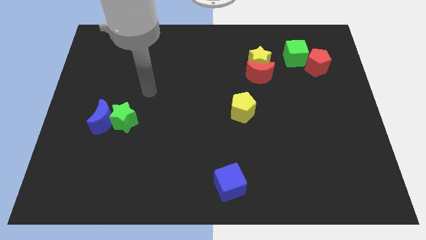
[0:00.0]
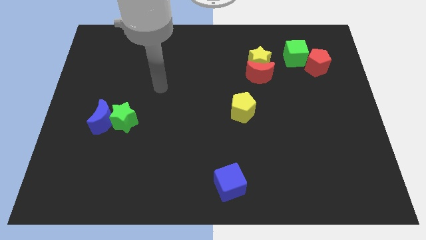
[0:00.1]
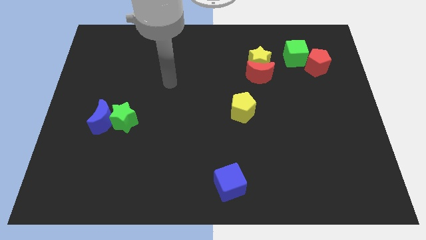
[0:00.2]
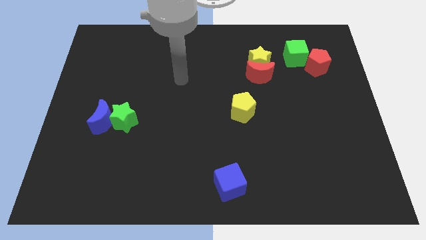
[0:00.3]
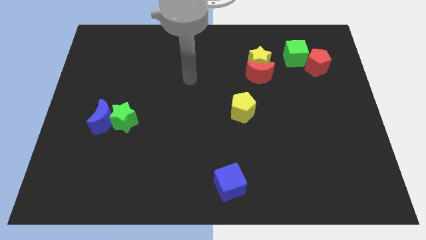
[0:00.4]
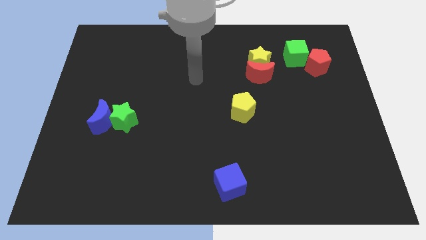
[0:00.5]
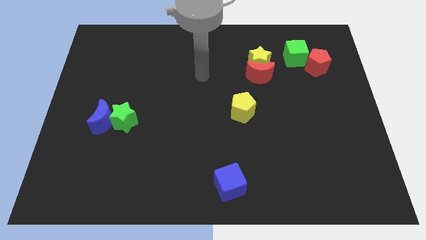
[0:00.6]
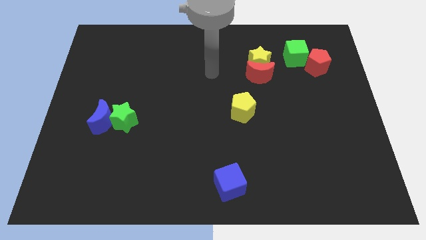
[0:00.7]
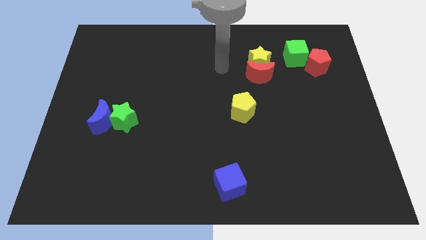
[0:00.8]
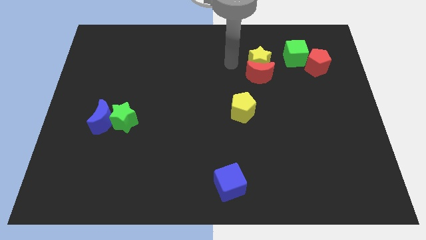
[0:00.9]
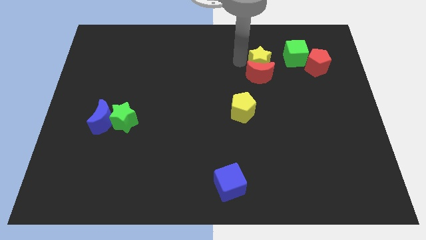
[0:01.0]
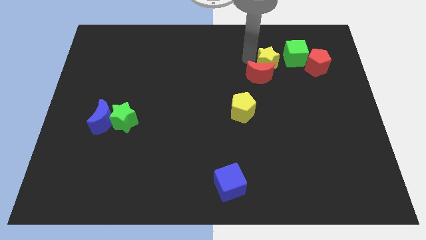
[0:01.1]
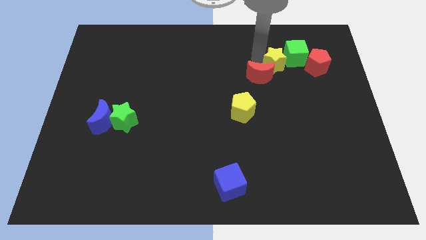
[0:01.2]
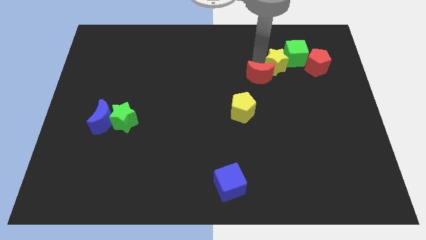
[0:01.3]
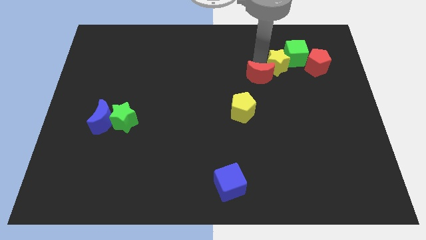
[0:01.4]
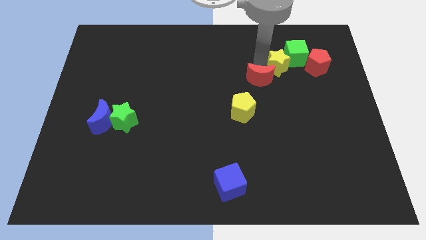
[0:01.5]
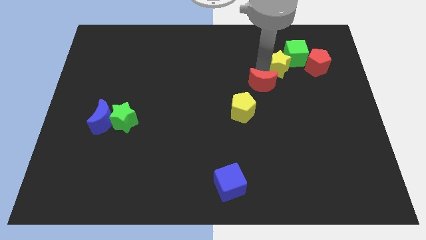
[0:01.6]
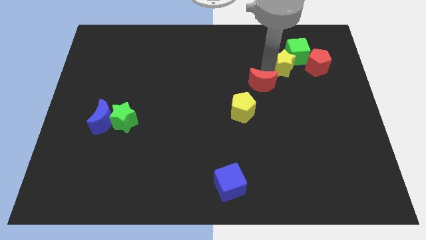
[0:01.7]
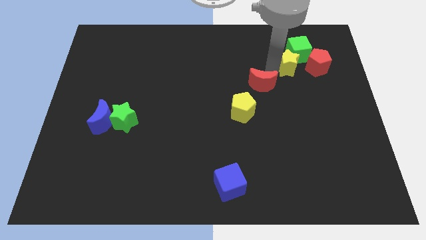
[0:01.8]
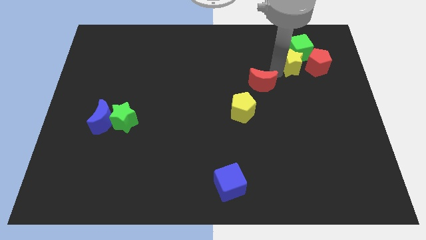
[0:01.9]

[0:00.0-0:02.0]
move the red moon away from the yellow star

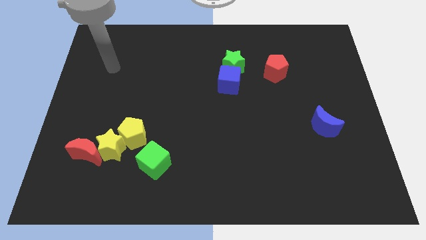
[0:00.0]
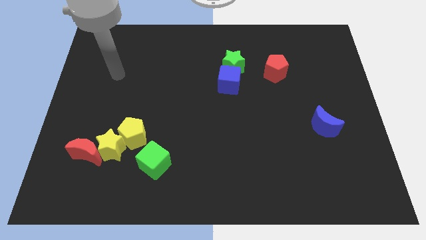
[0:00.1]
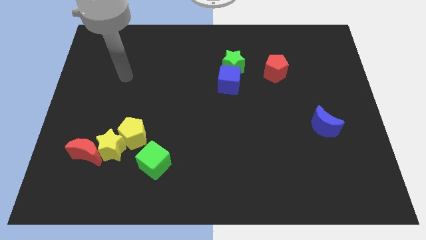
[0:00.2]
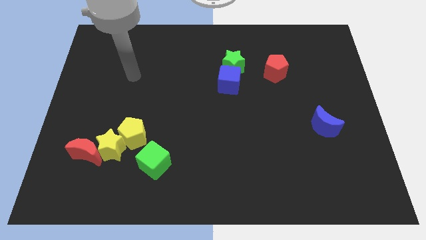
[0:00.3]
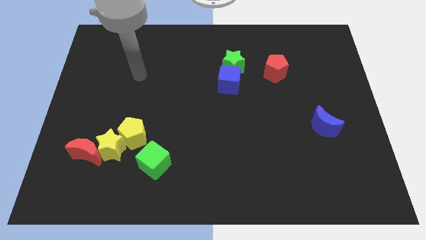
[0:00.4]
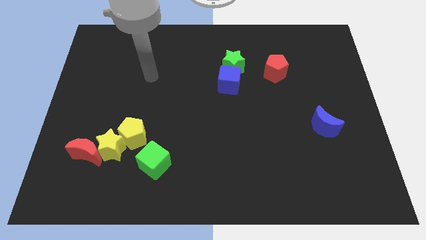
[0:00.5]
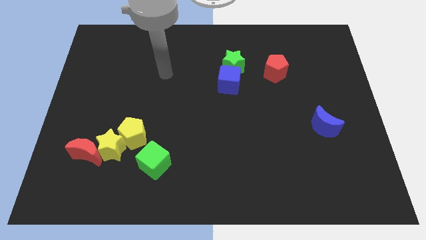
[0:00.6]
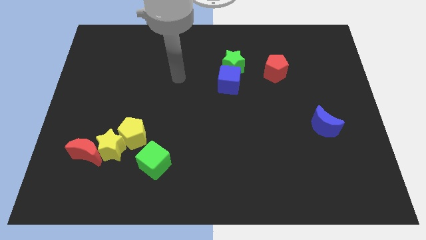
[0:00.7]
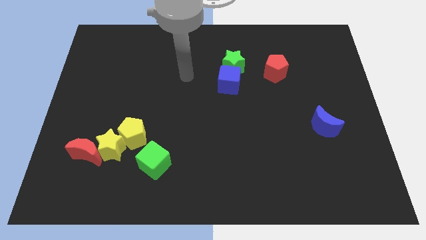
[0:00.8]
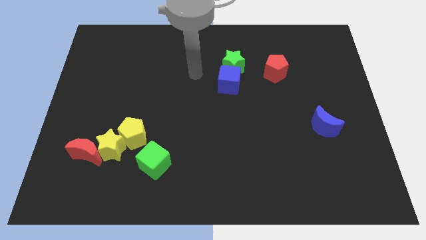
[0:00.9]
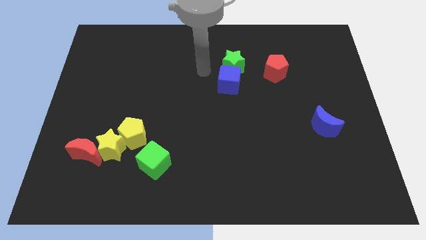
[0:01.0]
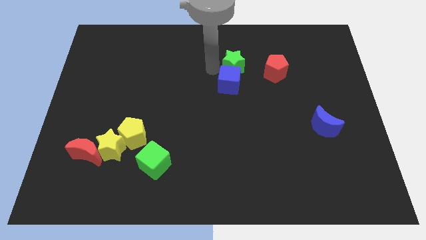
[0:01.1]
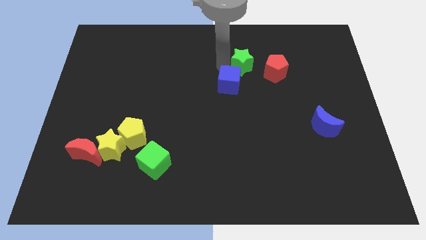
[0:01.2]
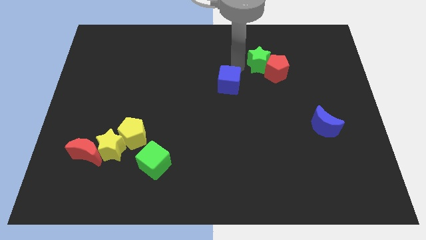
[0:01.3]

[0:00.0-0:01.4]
move the blue cube away from the green star

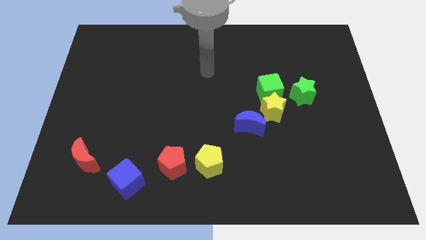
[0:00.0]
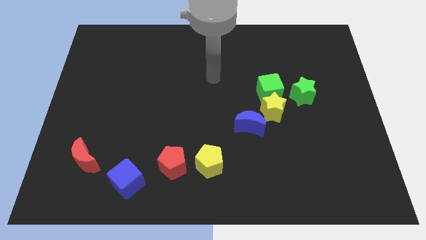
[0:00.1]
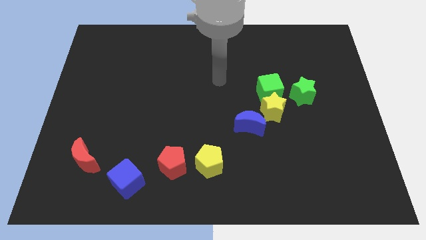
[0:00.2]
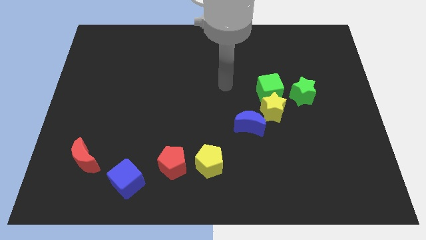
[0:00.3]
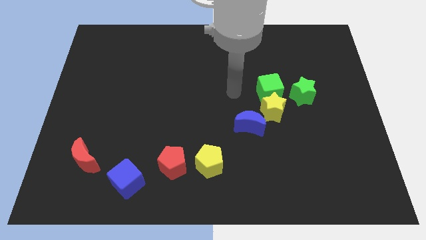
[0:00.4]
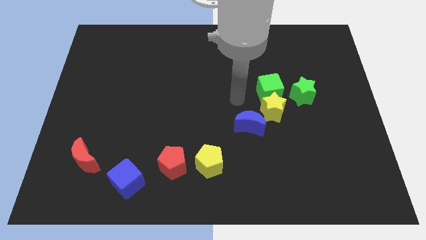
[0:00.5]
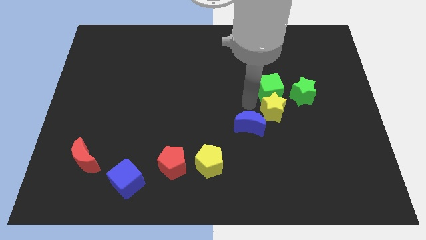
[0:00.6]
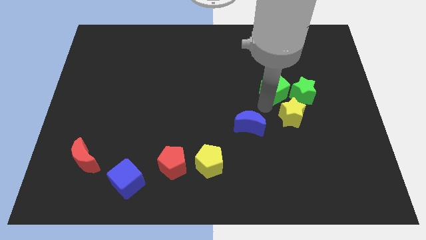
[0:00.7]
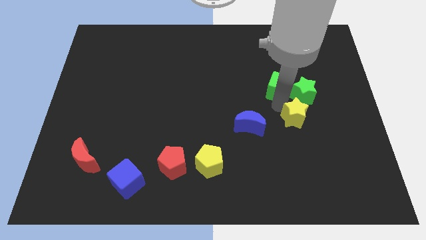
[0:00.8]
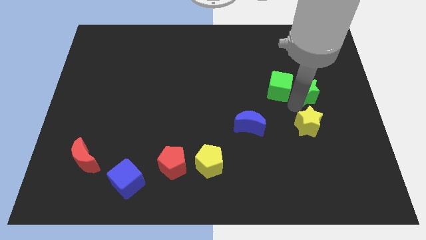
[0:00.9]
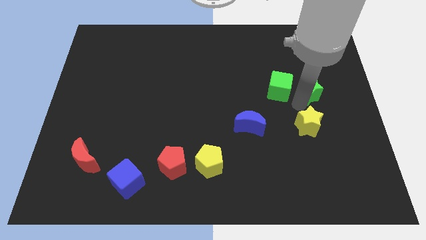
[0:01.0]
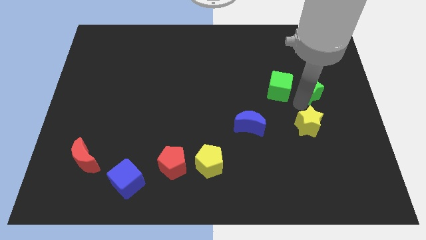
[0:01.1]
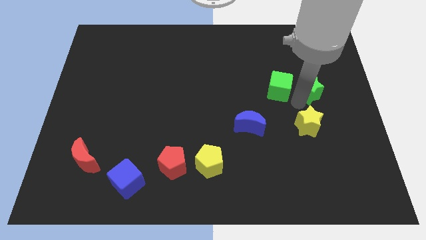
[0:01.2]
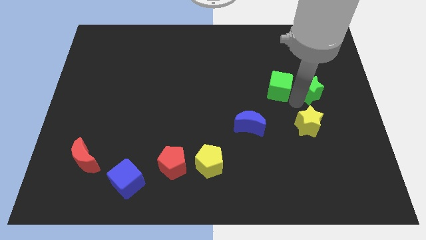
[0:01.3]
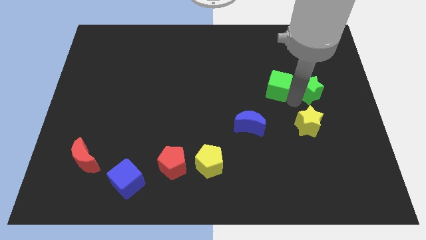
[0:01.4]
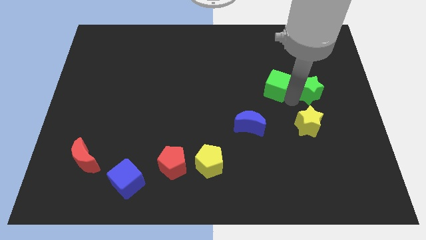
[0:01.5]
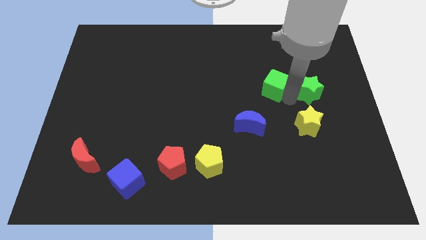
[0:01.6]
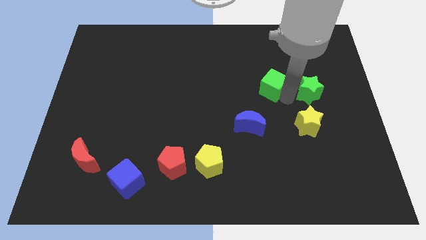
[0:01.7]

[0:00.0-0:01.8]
separate the green cube from the yellow star and green star

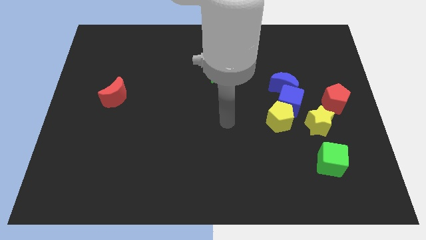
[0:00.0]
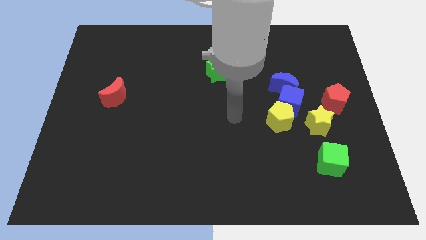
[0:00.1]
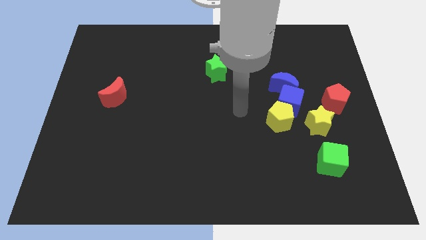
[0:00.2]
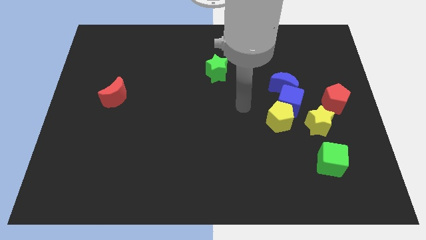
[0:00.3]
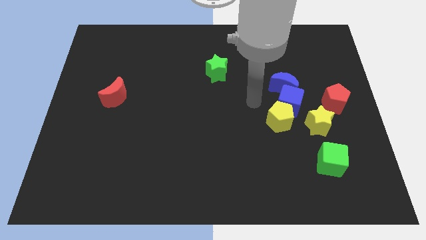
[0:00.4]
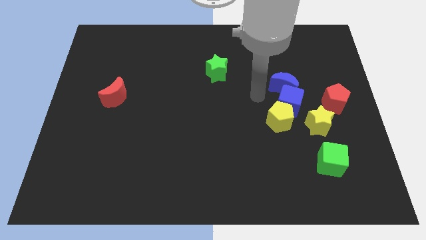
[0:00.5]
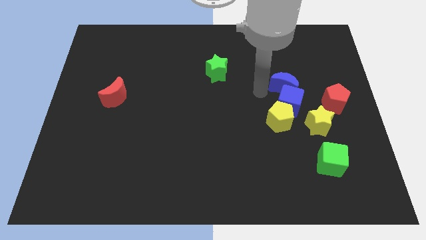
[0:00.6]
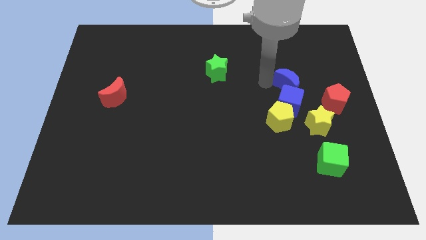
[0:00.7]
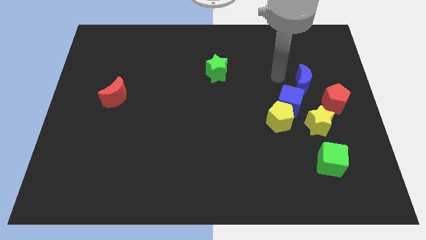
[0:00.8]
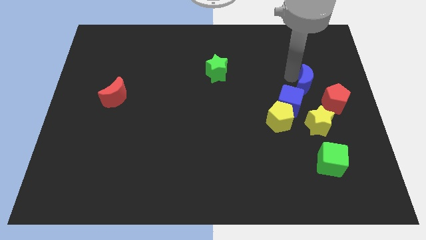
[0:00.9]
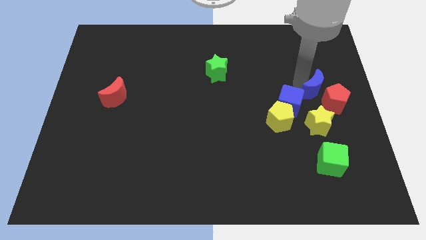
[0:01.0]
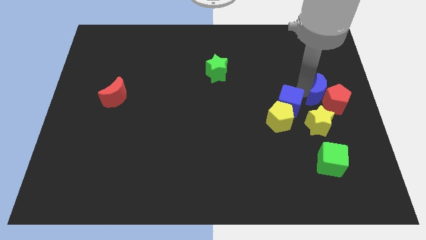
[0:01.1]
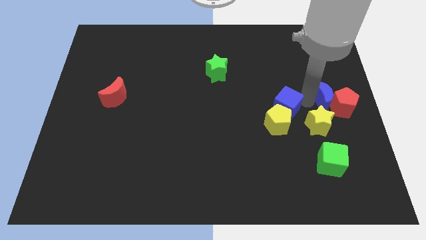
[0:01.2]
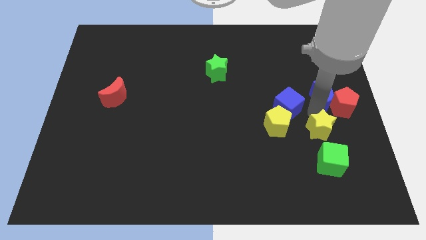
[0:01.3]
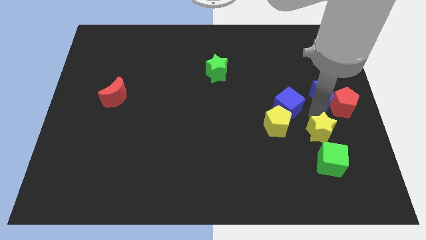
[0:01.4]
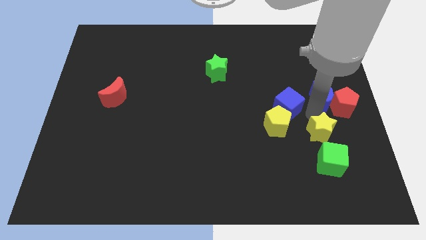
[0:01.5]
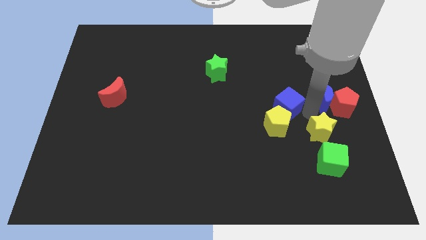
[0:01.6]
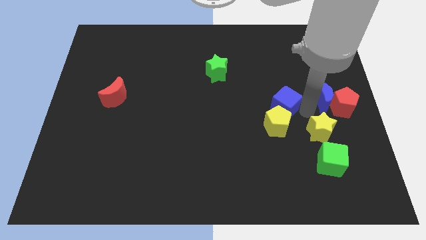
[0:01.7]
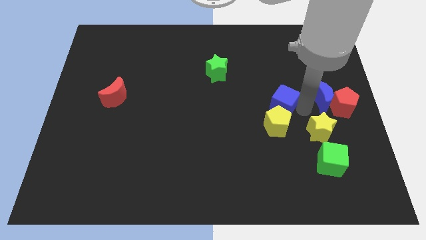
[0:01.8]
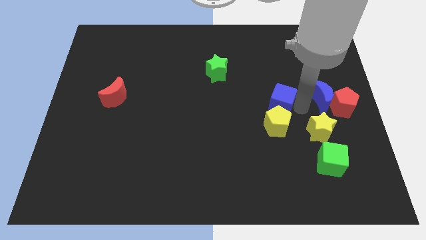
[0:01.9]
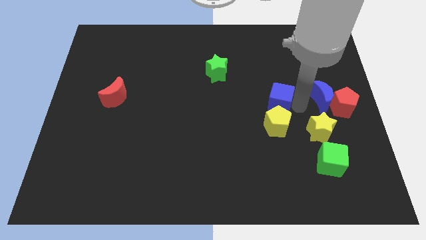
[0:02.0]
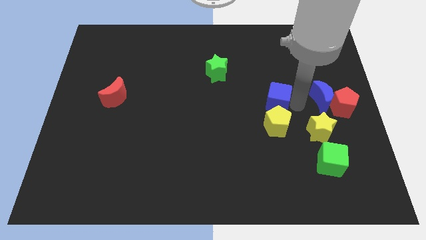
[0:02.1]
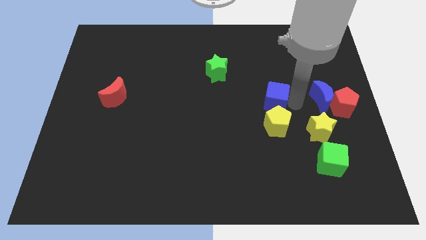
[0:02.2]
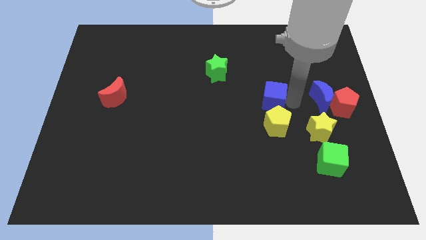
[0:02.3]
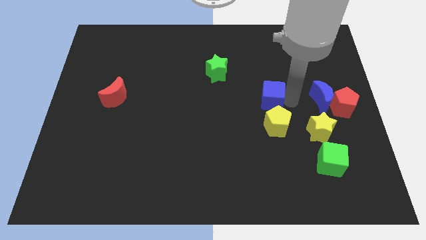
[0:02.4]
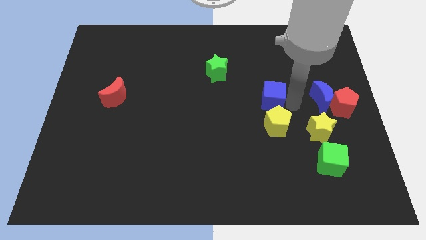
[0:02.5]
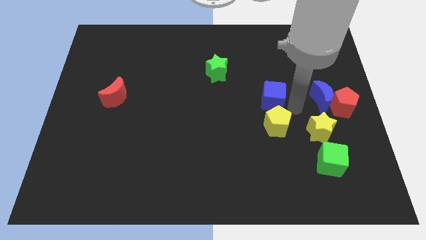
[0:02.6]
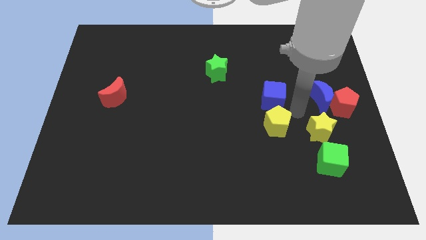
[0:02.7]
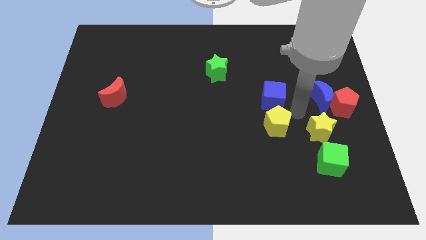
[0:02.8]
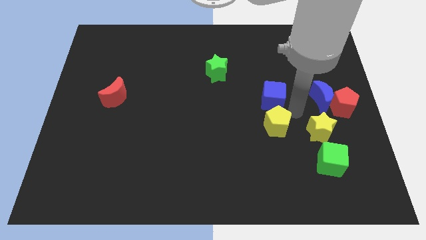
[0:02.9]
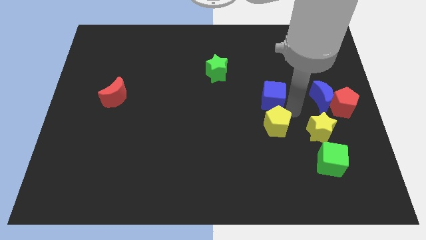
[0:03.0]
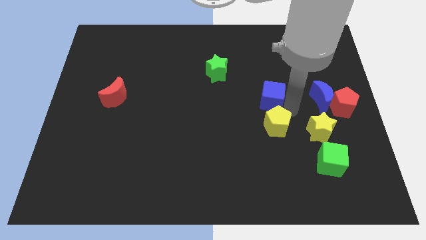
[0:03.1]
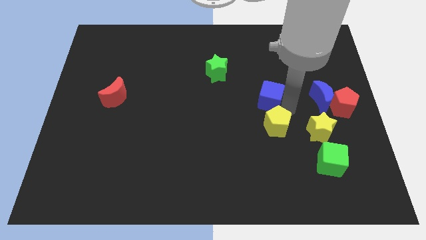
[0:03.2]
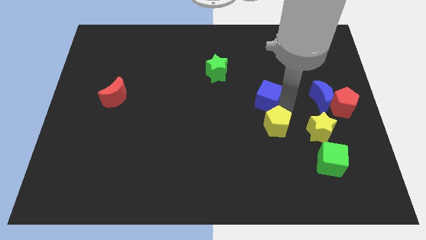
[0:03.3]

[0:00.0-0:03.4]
move the blue cube away from the group of blocks

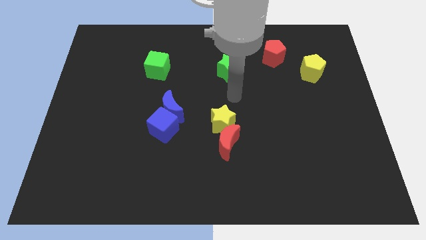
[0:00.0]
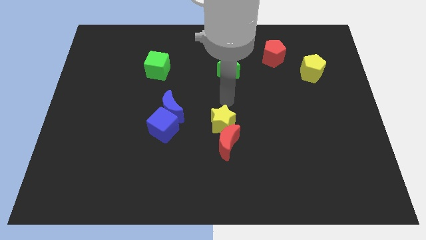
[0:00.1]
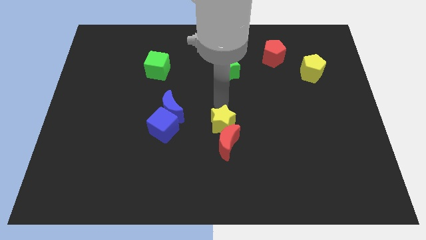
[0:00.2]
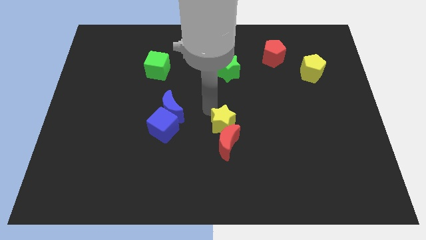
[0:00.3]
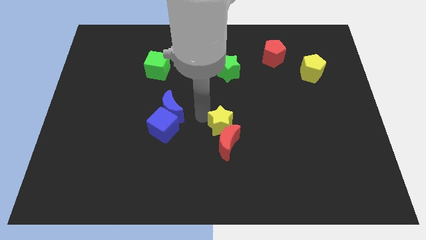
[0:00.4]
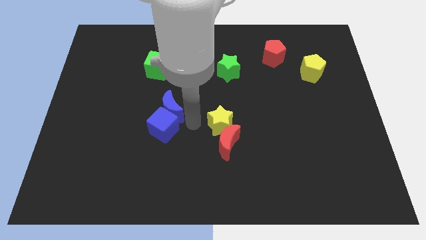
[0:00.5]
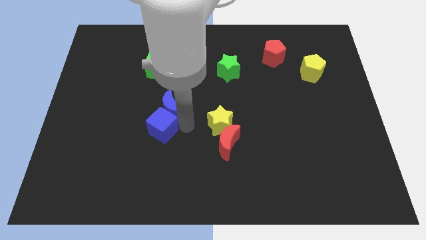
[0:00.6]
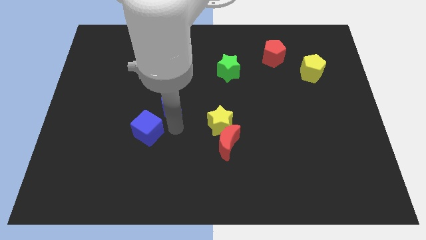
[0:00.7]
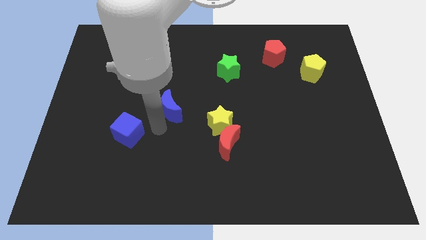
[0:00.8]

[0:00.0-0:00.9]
move the blue moon away from the blue cube
